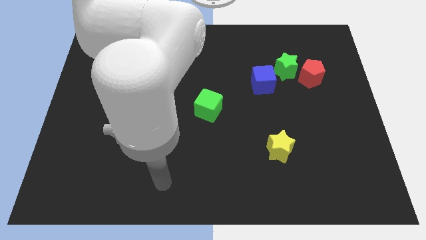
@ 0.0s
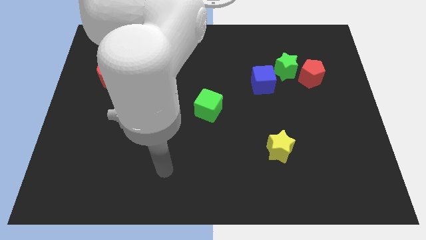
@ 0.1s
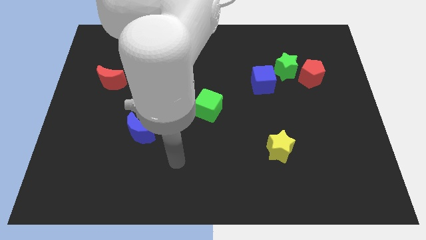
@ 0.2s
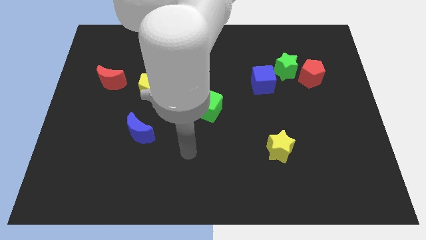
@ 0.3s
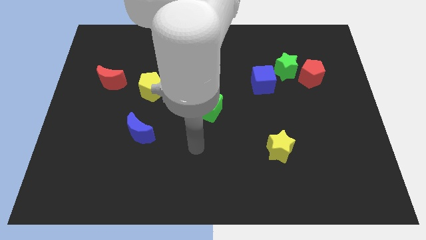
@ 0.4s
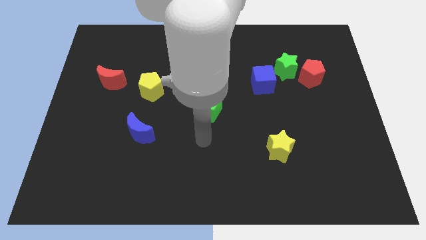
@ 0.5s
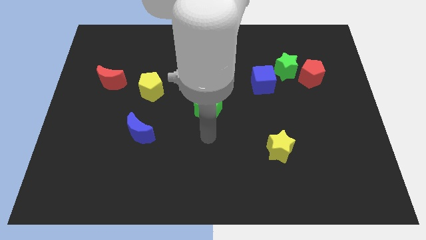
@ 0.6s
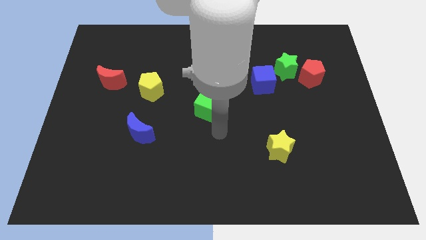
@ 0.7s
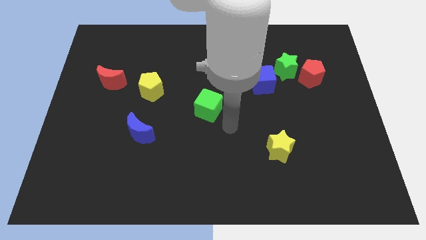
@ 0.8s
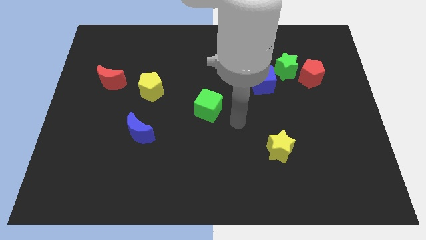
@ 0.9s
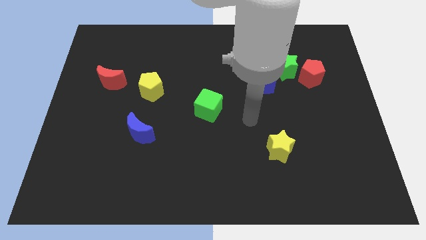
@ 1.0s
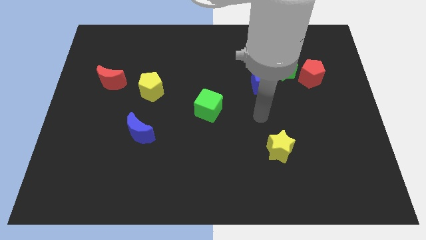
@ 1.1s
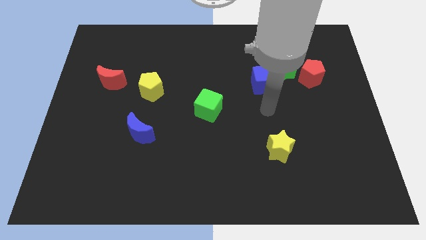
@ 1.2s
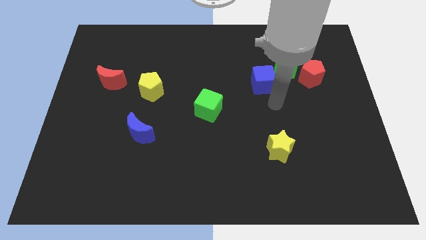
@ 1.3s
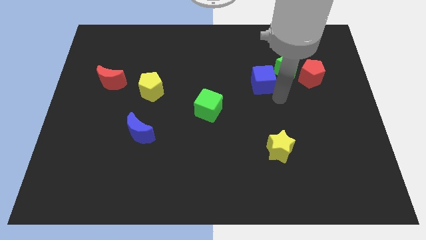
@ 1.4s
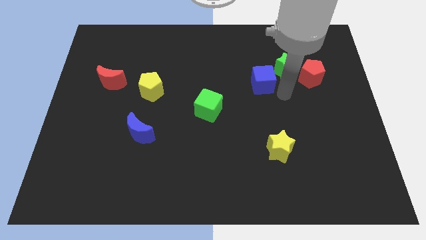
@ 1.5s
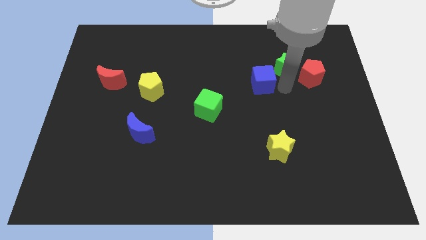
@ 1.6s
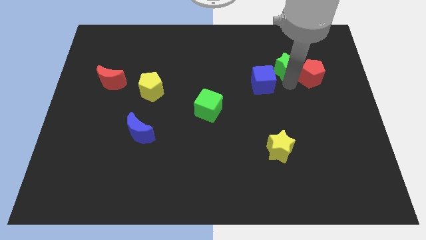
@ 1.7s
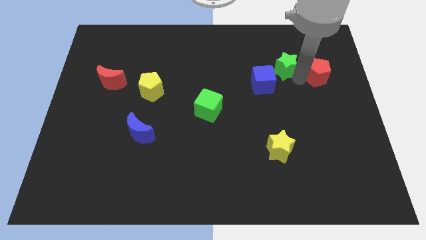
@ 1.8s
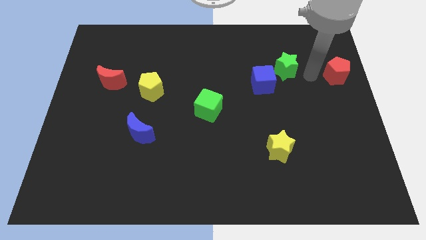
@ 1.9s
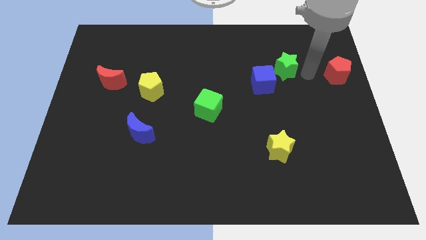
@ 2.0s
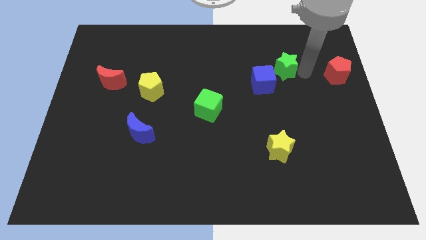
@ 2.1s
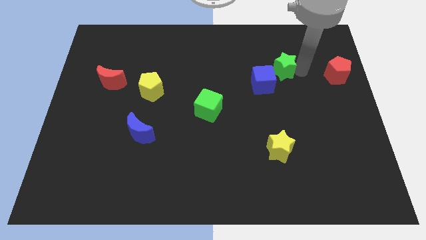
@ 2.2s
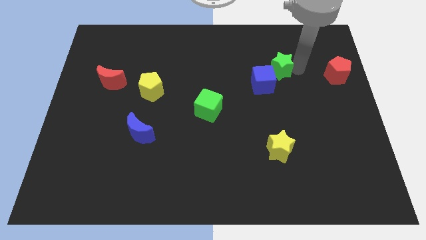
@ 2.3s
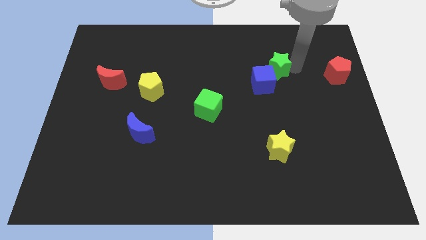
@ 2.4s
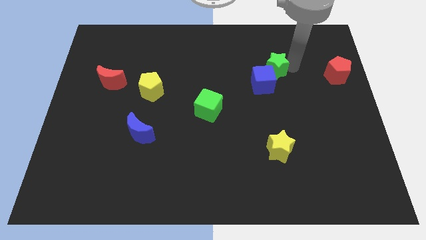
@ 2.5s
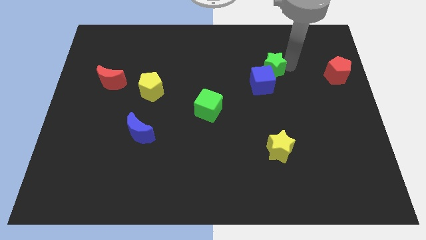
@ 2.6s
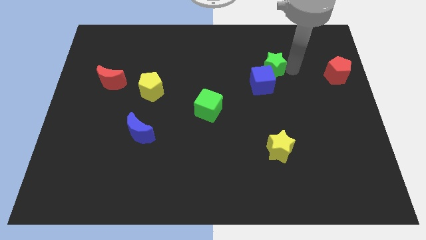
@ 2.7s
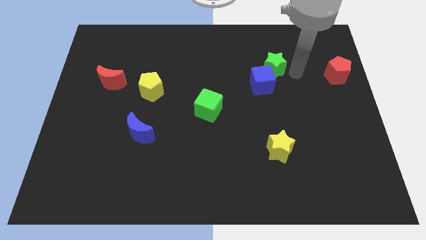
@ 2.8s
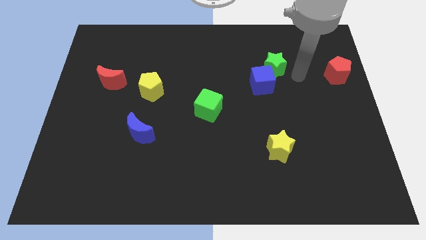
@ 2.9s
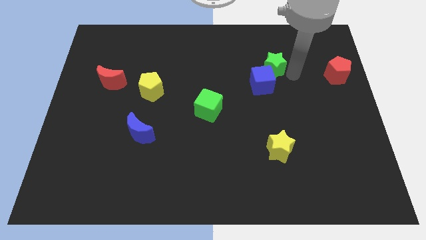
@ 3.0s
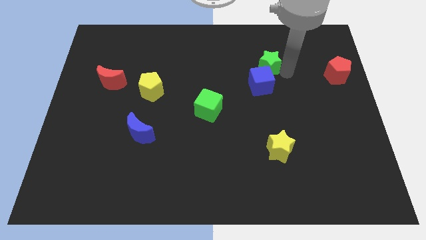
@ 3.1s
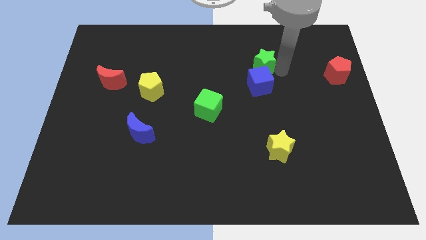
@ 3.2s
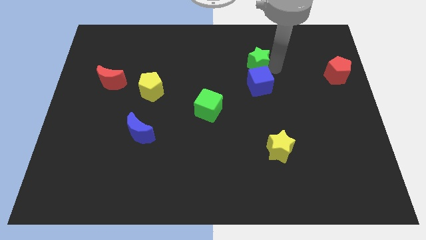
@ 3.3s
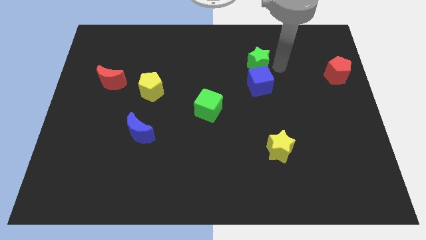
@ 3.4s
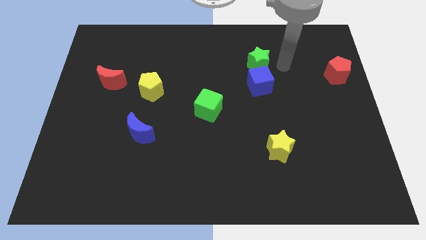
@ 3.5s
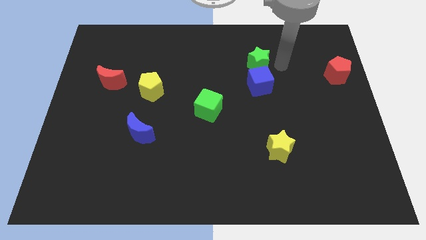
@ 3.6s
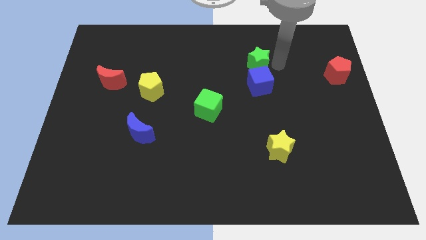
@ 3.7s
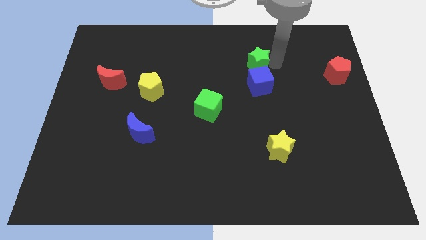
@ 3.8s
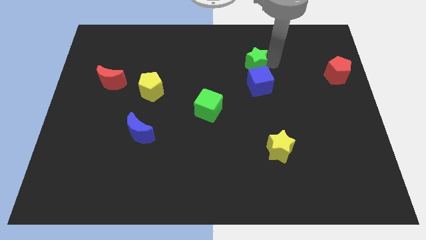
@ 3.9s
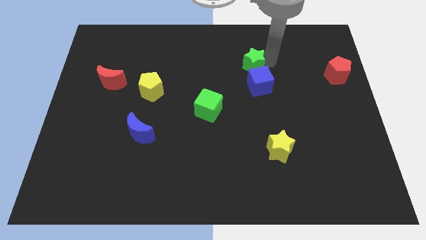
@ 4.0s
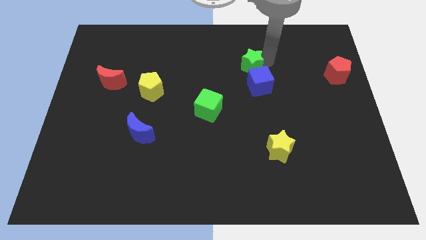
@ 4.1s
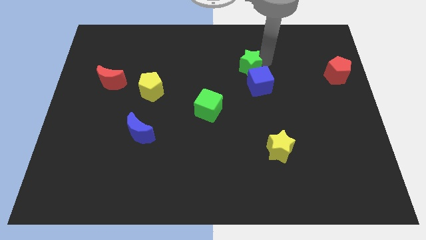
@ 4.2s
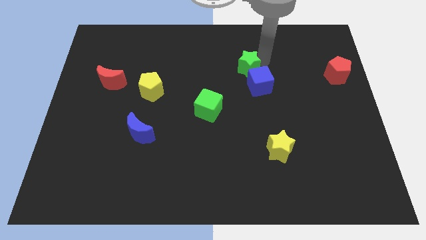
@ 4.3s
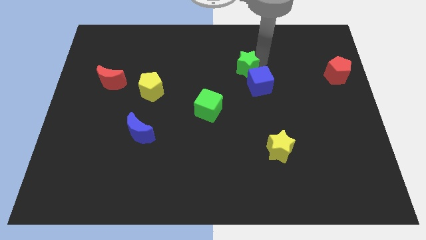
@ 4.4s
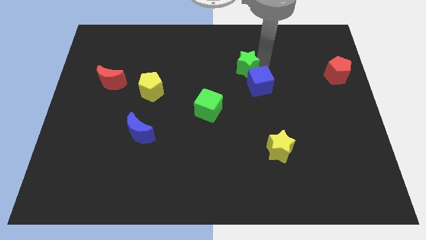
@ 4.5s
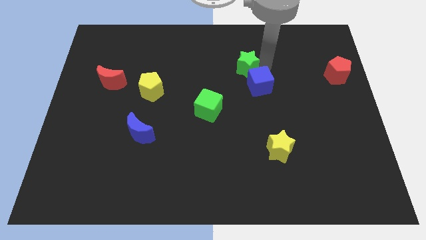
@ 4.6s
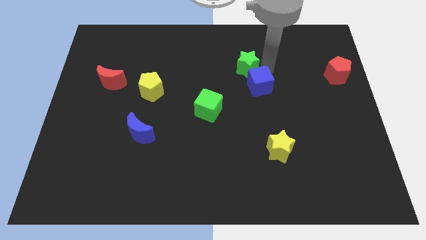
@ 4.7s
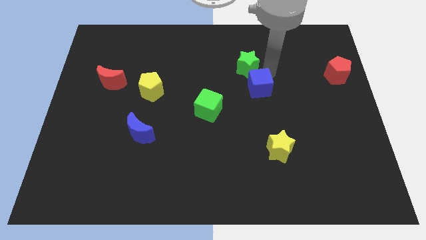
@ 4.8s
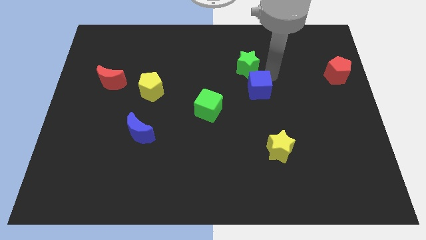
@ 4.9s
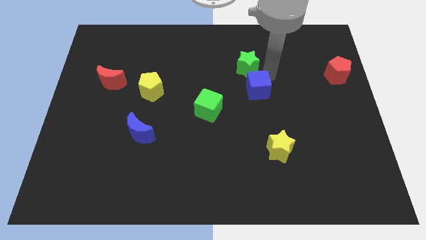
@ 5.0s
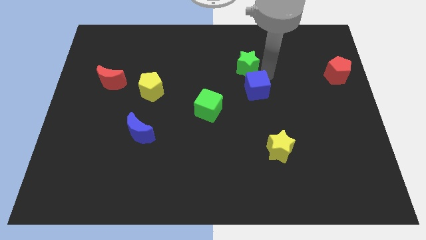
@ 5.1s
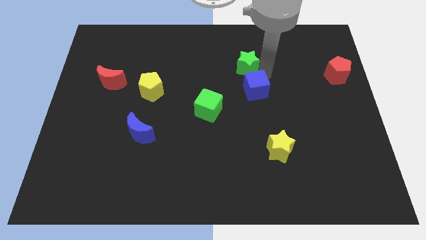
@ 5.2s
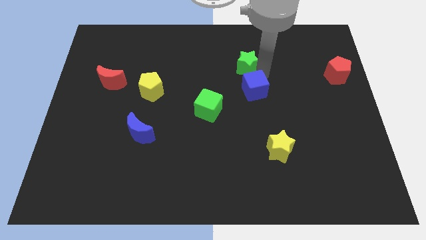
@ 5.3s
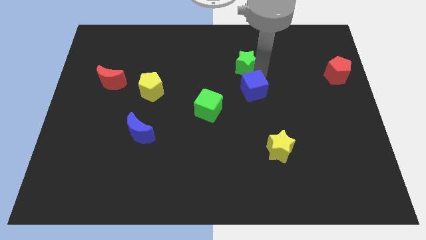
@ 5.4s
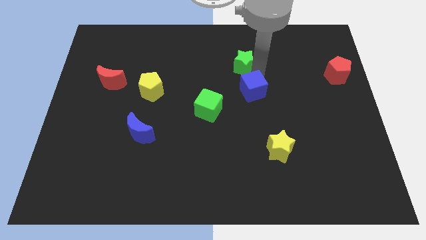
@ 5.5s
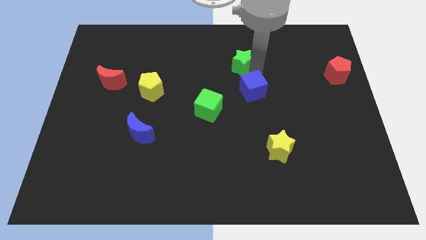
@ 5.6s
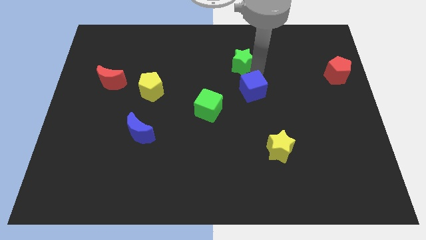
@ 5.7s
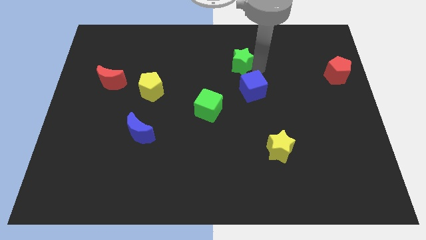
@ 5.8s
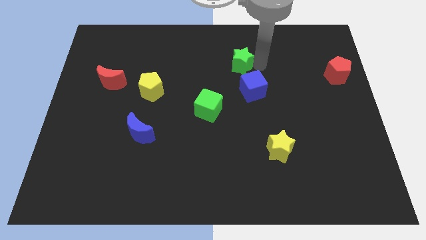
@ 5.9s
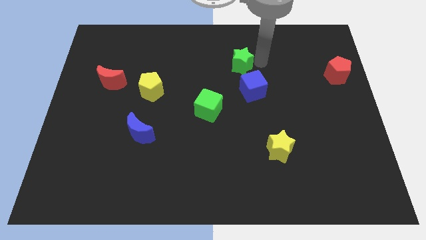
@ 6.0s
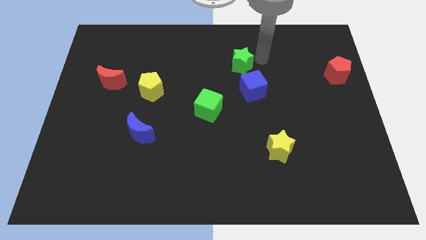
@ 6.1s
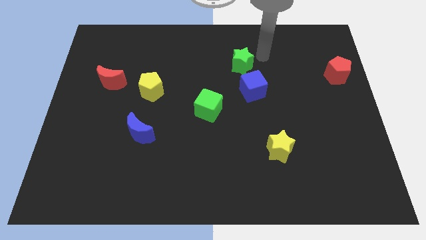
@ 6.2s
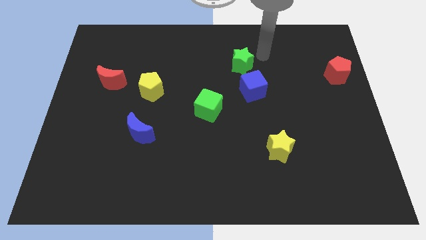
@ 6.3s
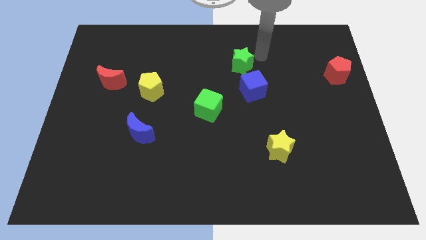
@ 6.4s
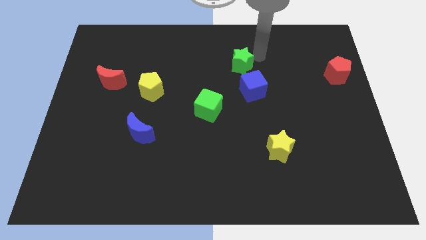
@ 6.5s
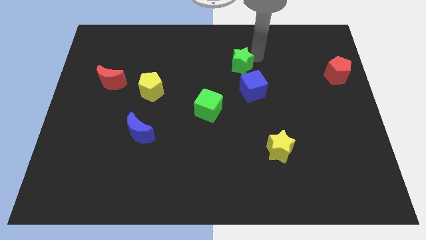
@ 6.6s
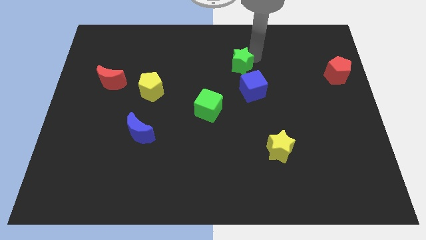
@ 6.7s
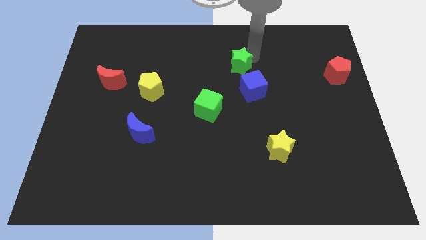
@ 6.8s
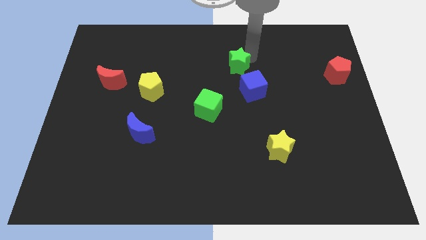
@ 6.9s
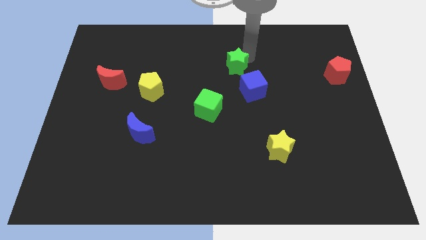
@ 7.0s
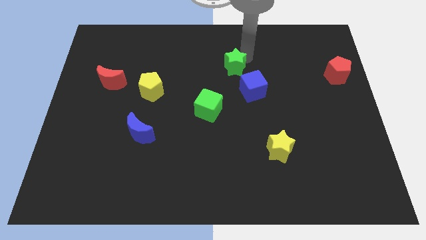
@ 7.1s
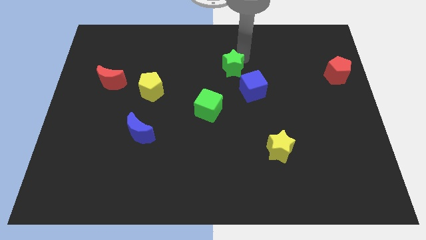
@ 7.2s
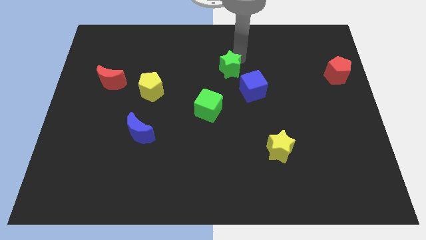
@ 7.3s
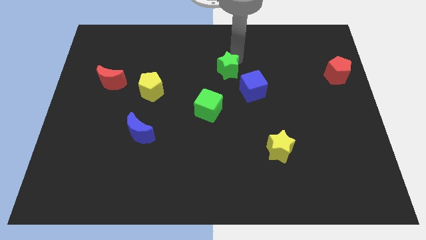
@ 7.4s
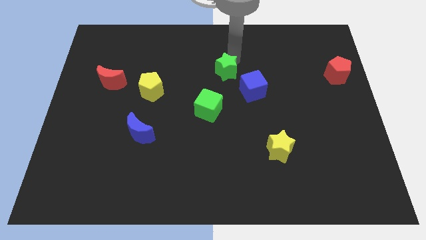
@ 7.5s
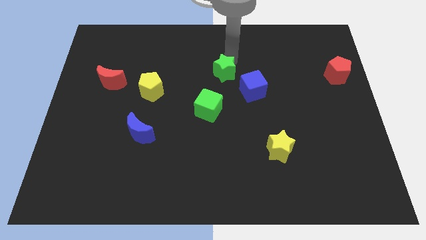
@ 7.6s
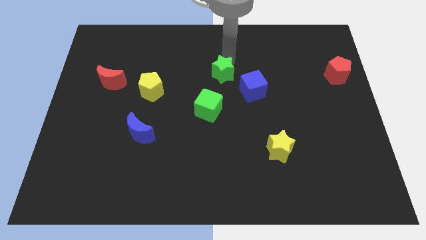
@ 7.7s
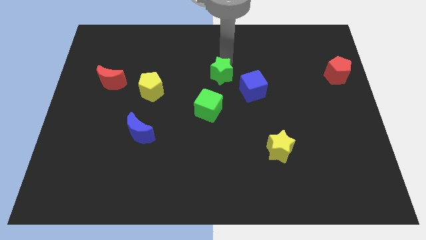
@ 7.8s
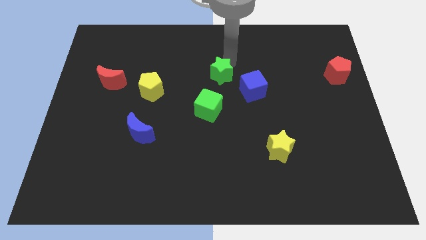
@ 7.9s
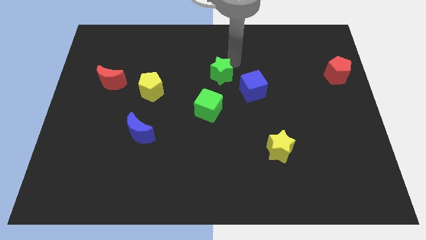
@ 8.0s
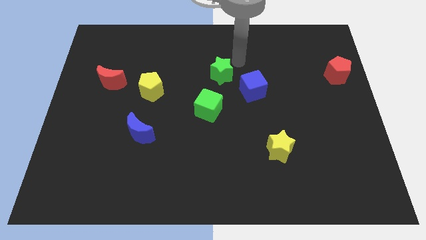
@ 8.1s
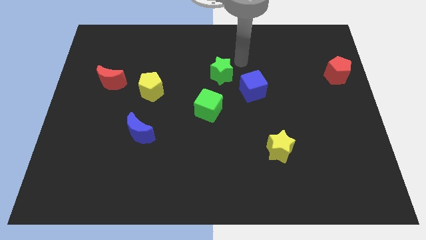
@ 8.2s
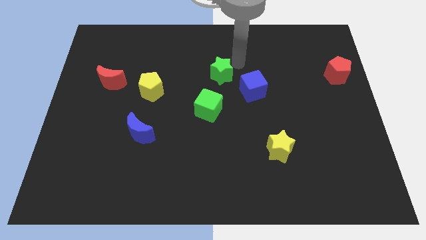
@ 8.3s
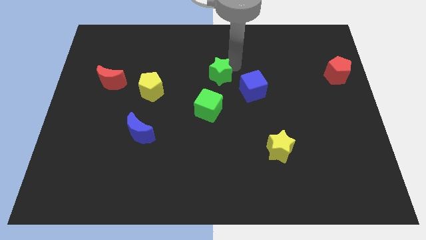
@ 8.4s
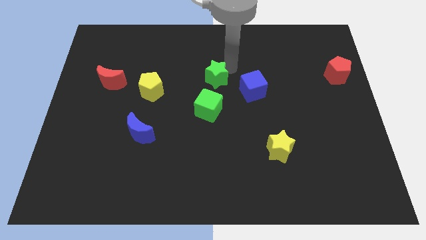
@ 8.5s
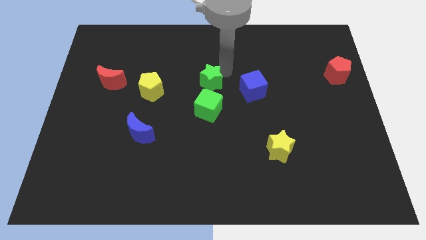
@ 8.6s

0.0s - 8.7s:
put the green star to the right of the yellow pentagon
